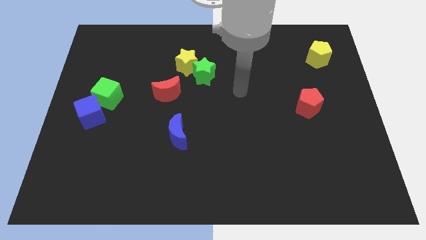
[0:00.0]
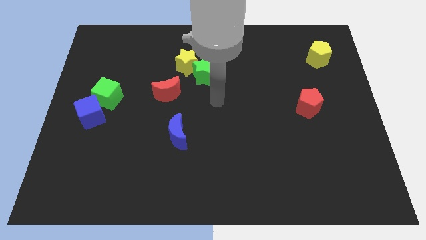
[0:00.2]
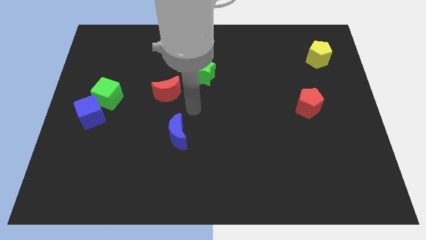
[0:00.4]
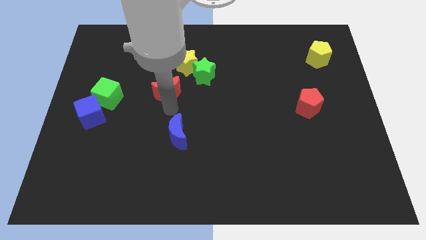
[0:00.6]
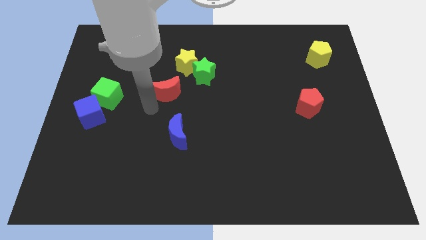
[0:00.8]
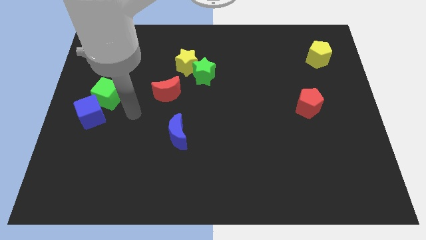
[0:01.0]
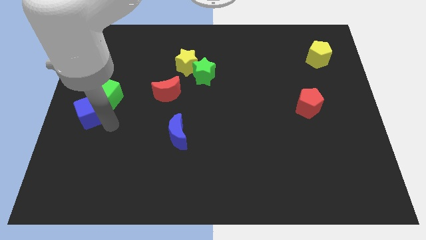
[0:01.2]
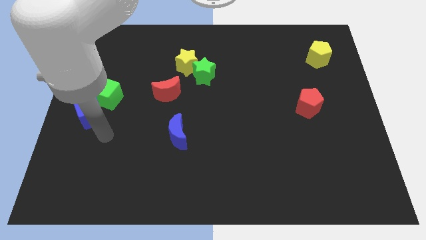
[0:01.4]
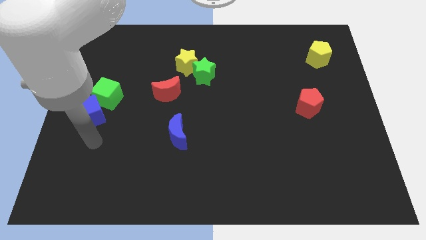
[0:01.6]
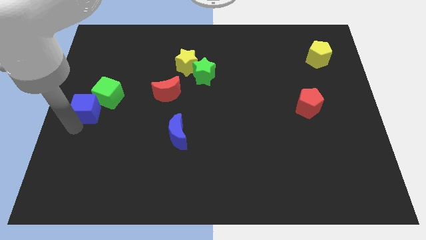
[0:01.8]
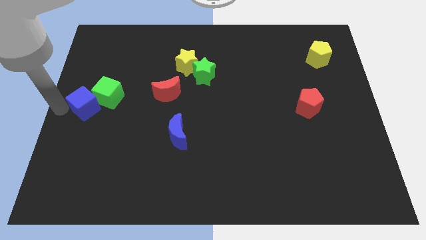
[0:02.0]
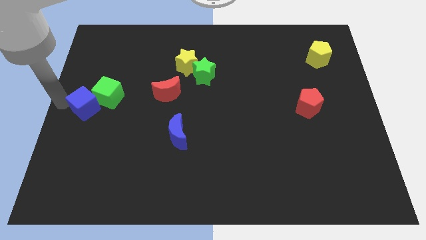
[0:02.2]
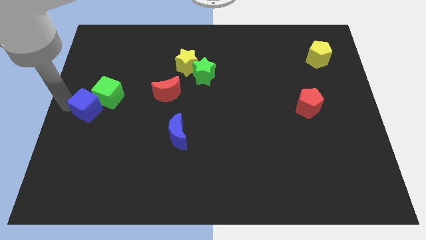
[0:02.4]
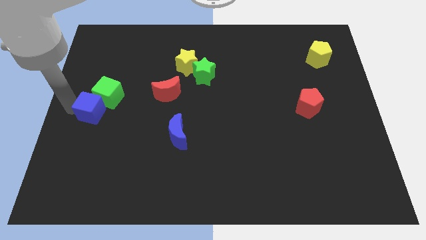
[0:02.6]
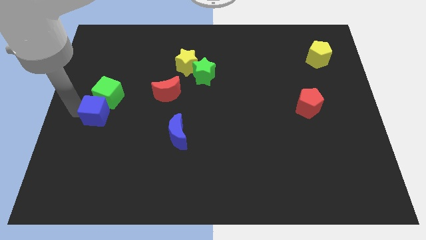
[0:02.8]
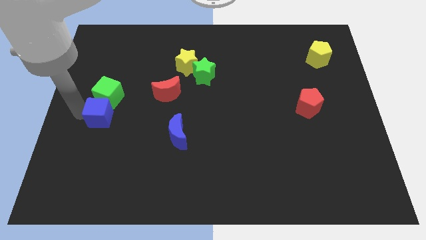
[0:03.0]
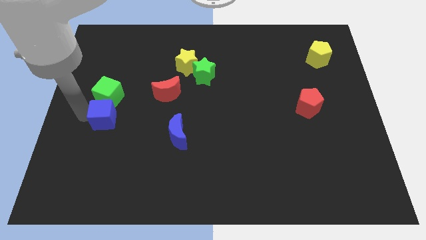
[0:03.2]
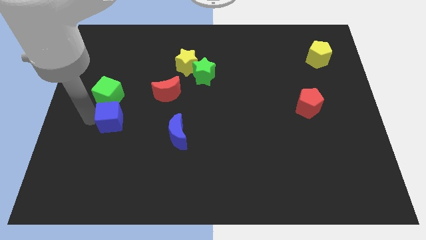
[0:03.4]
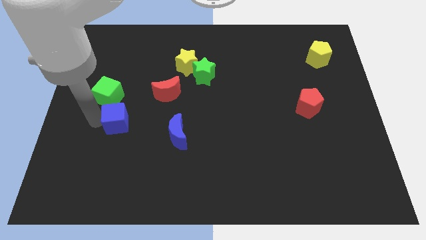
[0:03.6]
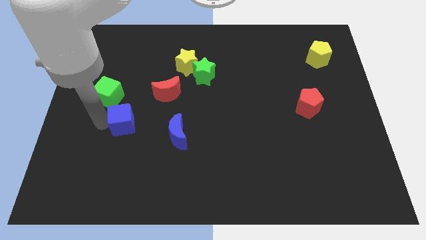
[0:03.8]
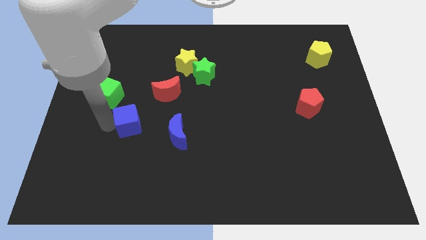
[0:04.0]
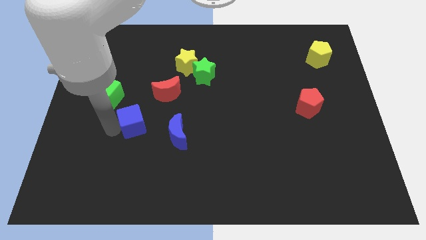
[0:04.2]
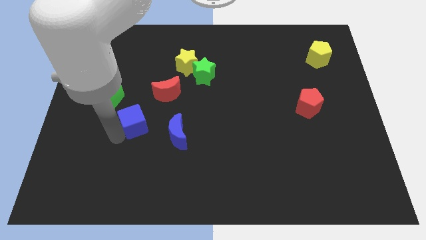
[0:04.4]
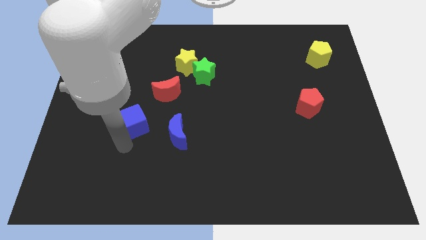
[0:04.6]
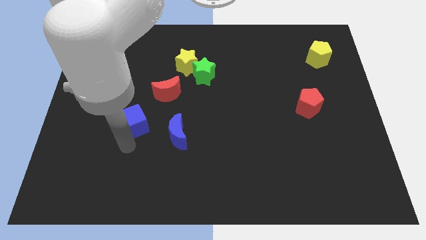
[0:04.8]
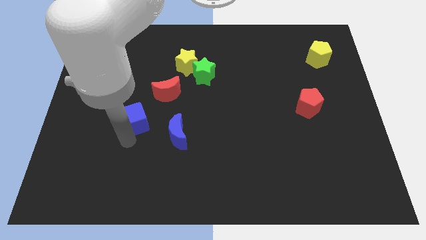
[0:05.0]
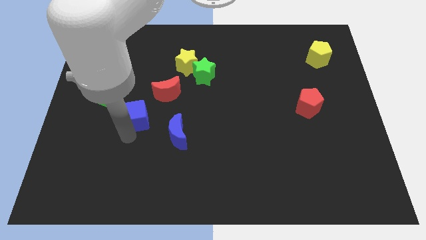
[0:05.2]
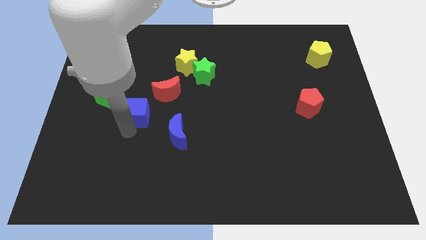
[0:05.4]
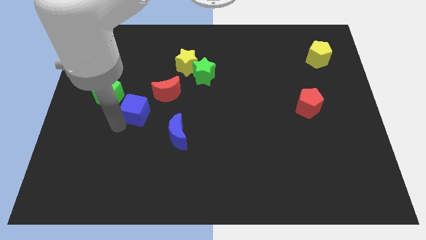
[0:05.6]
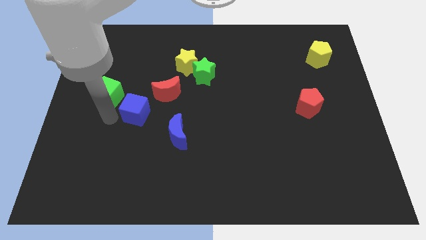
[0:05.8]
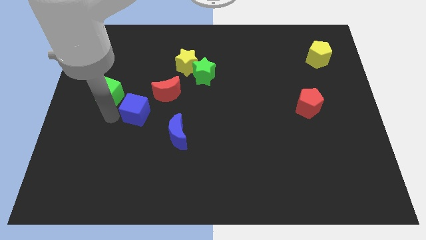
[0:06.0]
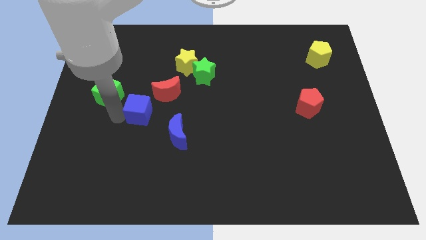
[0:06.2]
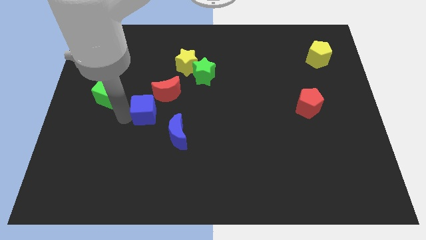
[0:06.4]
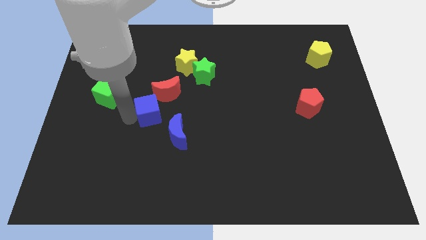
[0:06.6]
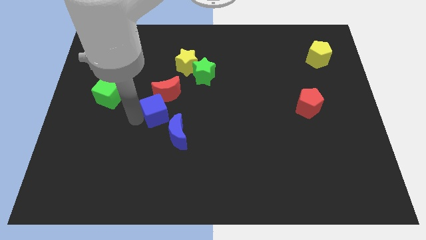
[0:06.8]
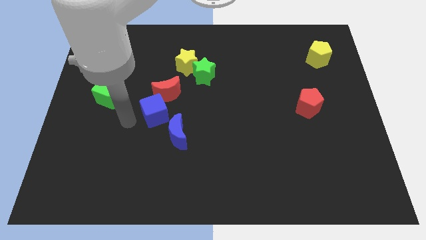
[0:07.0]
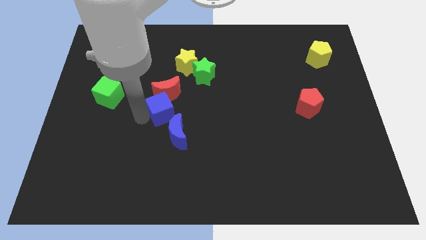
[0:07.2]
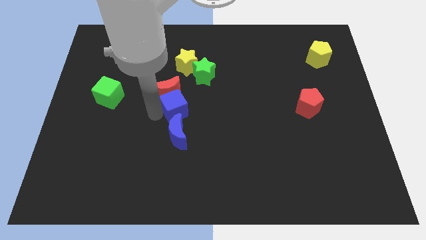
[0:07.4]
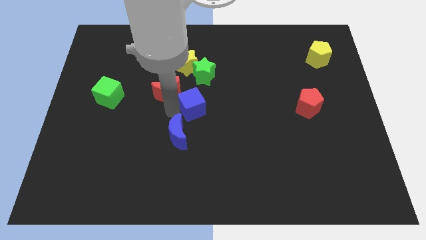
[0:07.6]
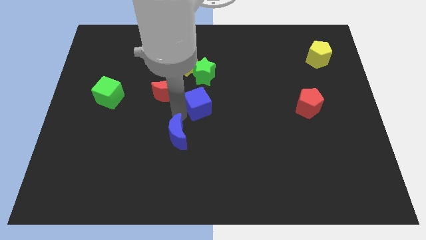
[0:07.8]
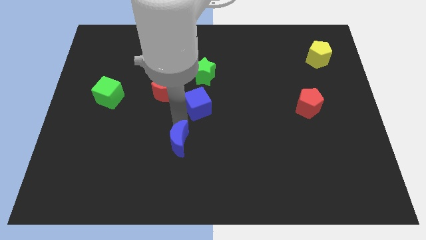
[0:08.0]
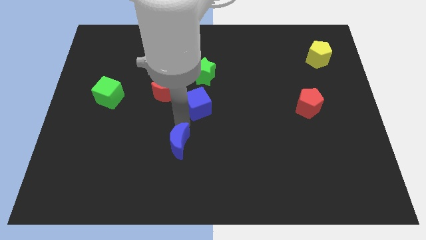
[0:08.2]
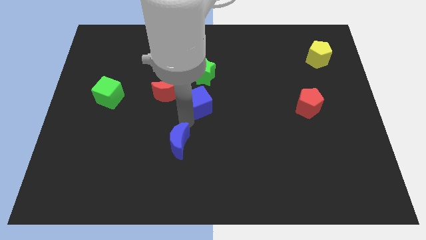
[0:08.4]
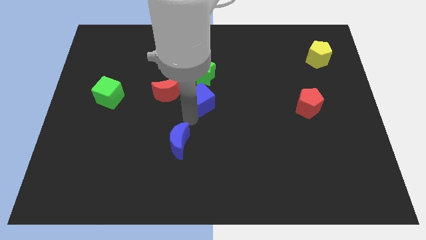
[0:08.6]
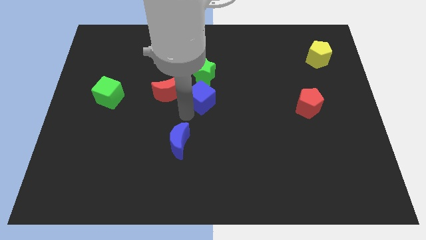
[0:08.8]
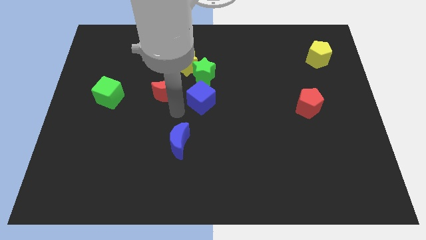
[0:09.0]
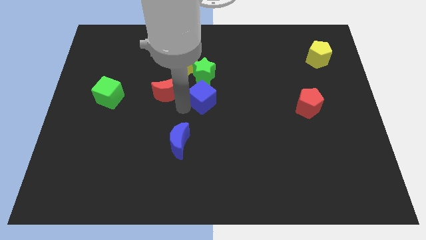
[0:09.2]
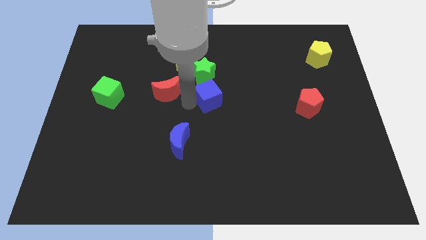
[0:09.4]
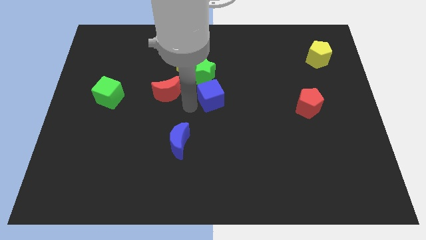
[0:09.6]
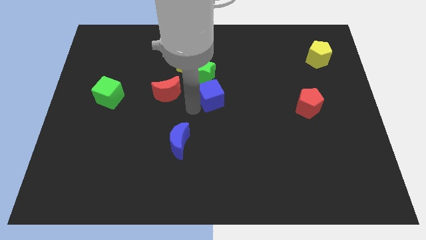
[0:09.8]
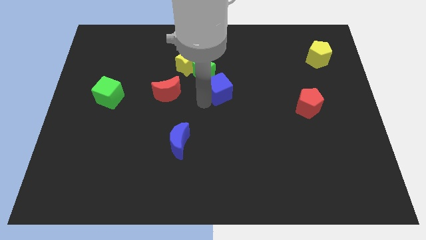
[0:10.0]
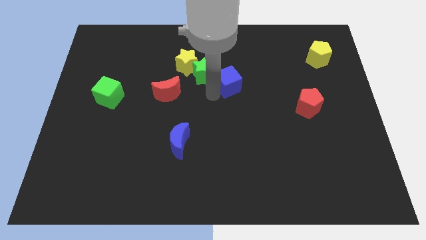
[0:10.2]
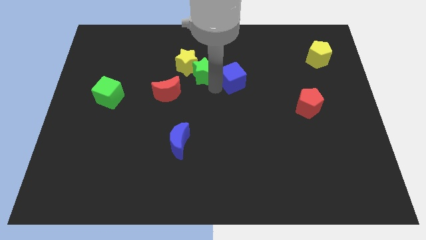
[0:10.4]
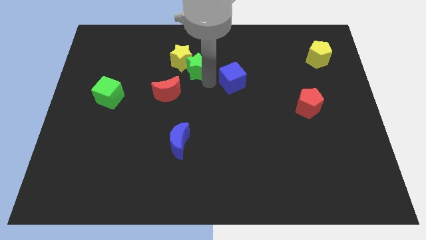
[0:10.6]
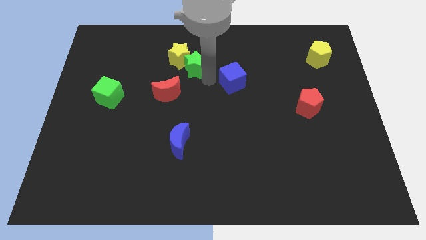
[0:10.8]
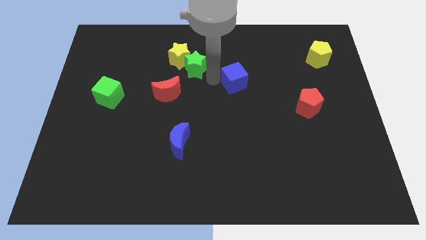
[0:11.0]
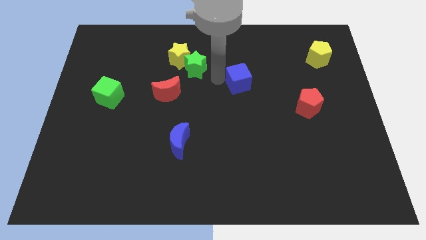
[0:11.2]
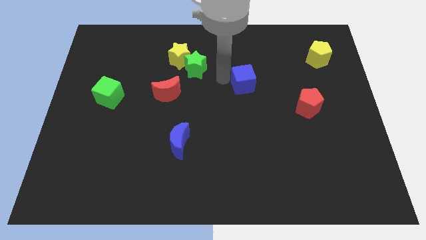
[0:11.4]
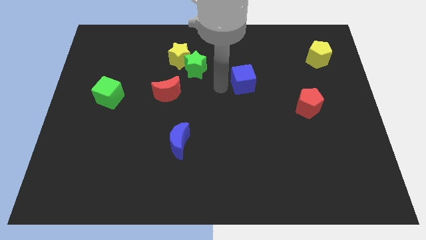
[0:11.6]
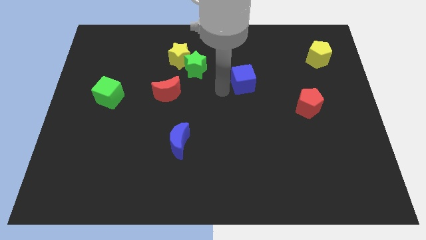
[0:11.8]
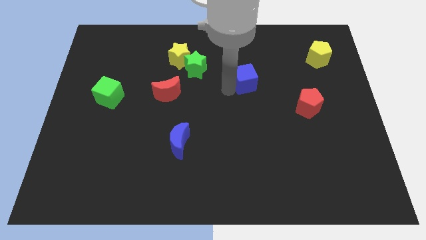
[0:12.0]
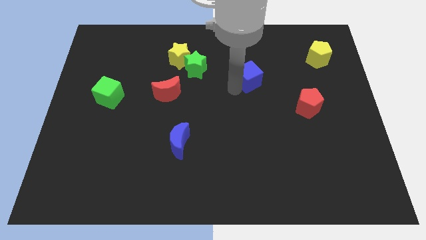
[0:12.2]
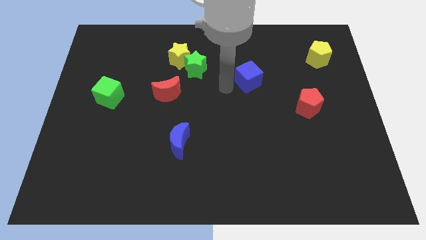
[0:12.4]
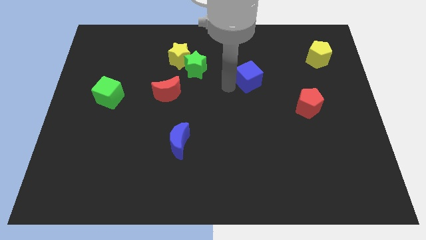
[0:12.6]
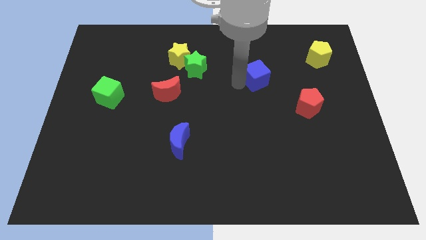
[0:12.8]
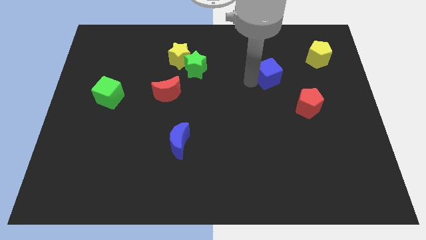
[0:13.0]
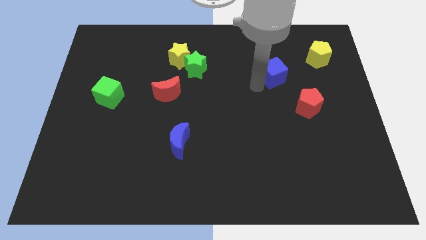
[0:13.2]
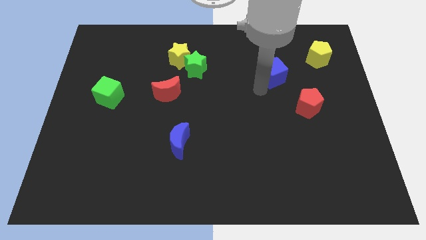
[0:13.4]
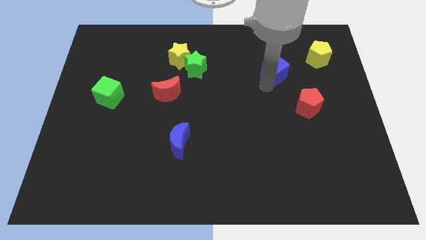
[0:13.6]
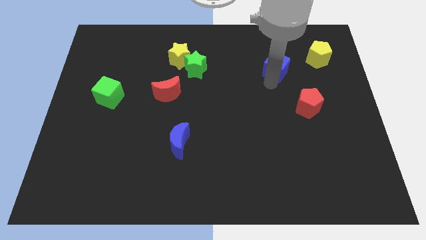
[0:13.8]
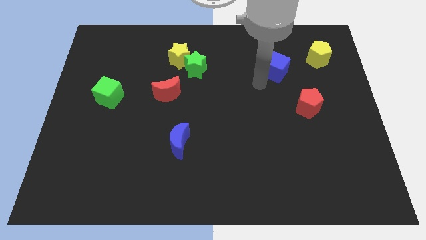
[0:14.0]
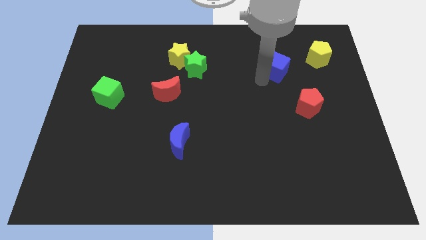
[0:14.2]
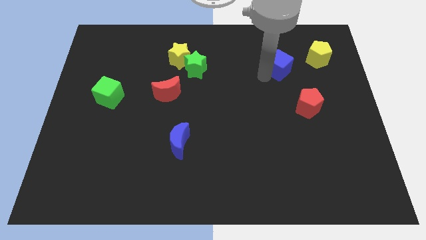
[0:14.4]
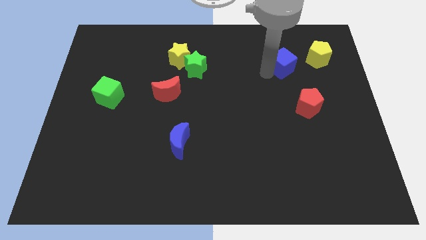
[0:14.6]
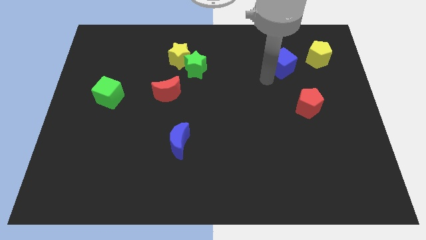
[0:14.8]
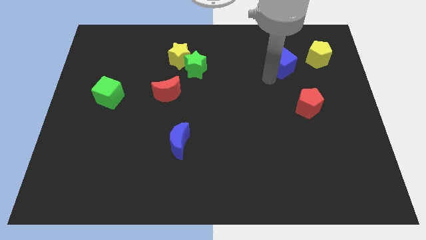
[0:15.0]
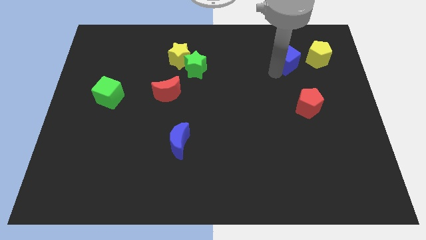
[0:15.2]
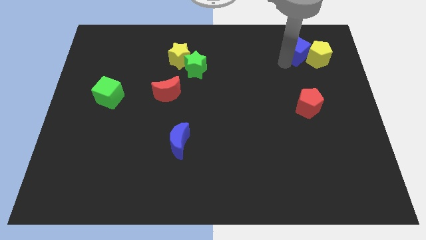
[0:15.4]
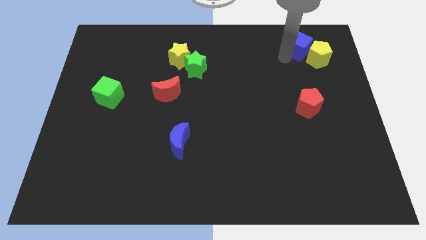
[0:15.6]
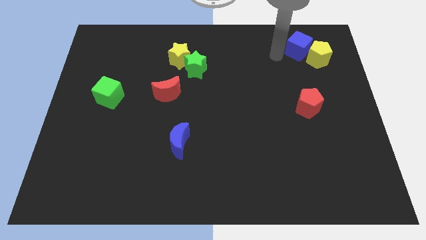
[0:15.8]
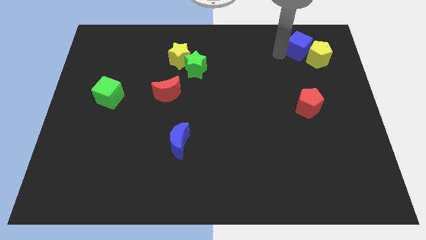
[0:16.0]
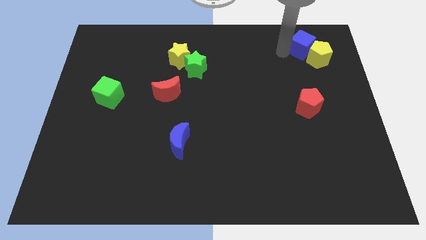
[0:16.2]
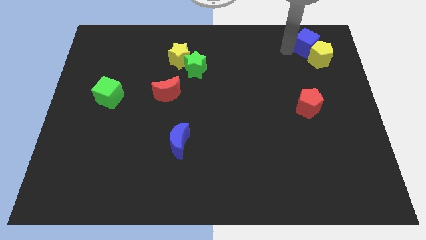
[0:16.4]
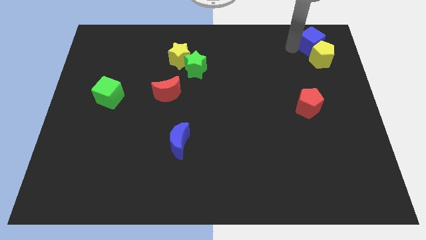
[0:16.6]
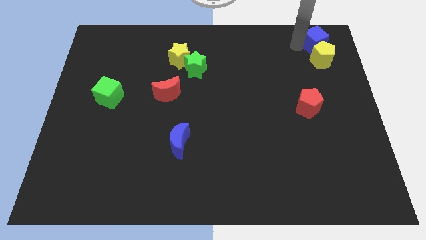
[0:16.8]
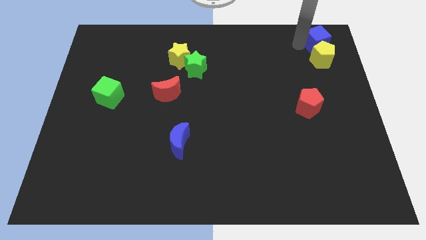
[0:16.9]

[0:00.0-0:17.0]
slide the blue cube to the top right
